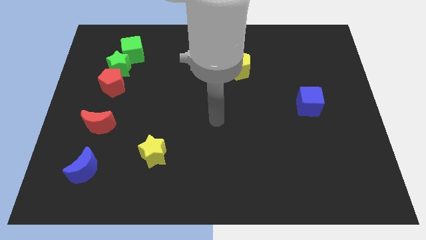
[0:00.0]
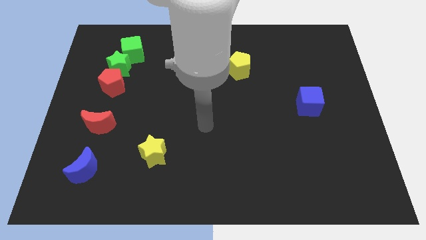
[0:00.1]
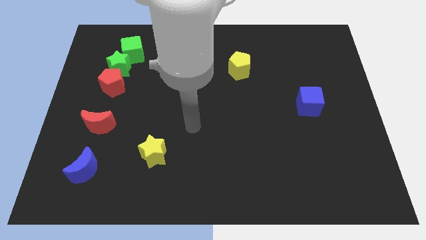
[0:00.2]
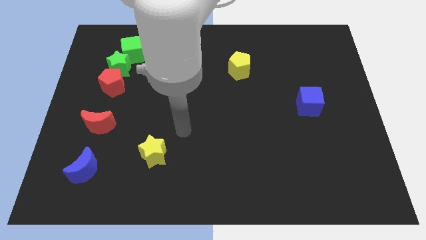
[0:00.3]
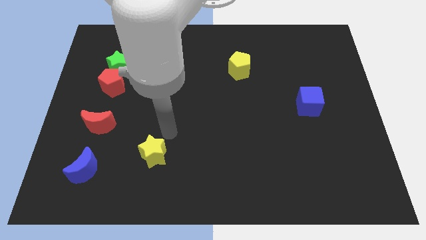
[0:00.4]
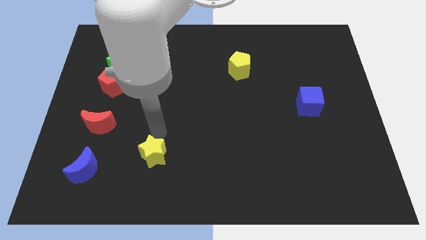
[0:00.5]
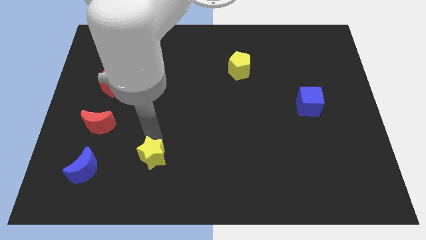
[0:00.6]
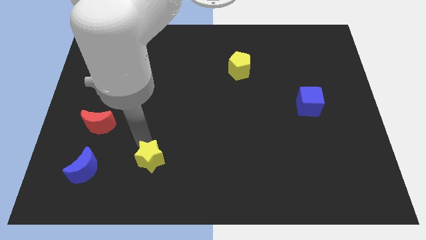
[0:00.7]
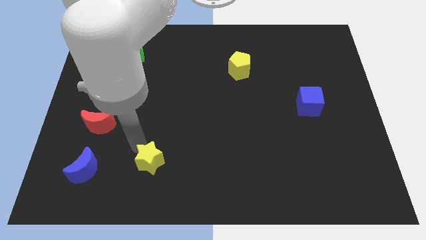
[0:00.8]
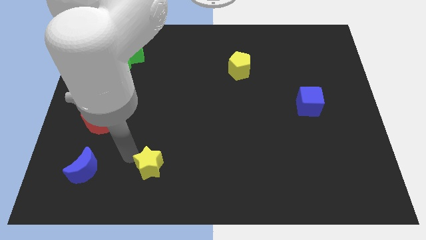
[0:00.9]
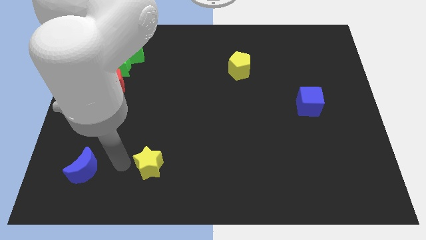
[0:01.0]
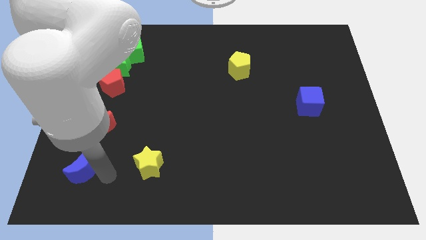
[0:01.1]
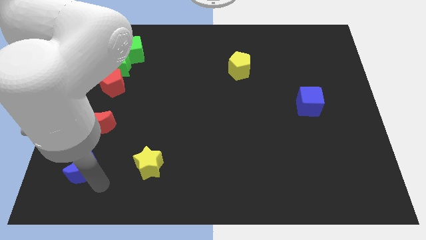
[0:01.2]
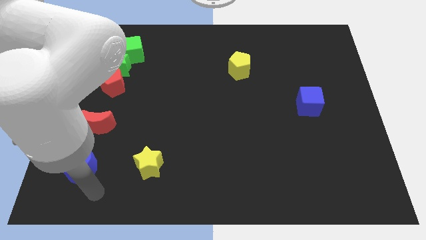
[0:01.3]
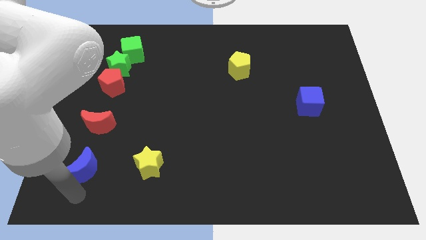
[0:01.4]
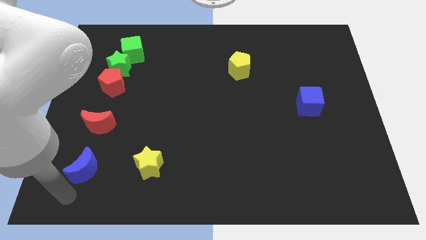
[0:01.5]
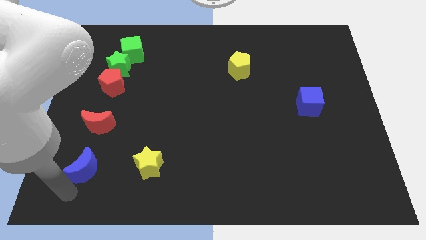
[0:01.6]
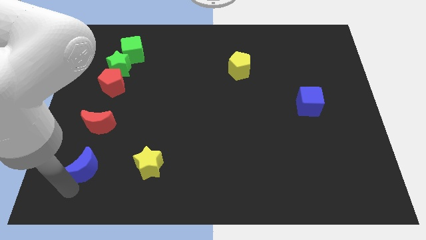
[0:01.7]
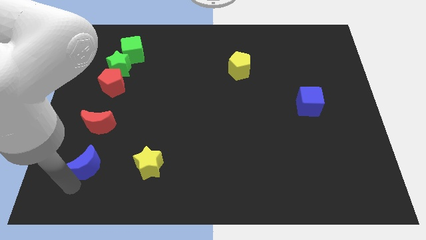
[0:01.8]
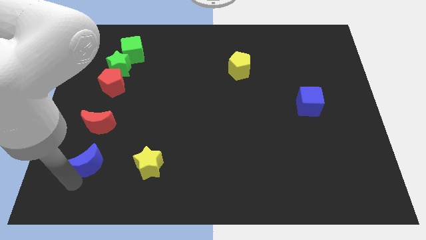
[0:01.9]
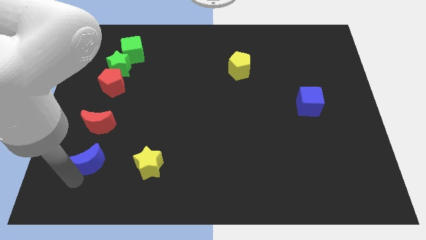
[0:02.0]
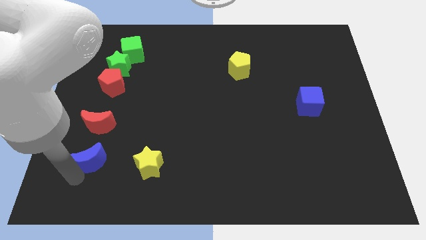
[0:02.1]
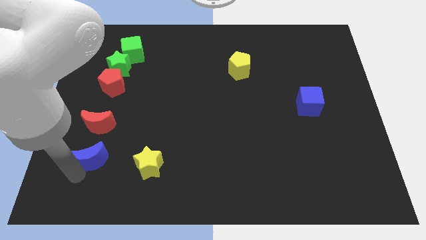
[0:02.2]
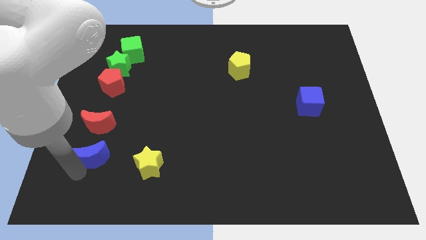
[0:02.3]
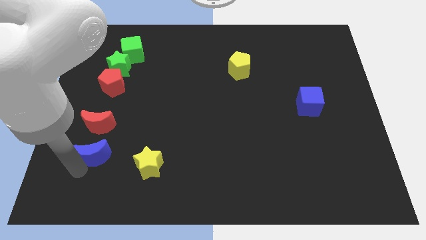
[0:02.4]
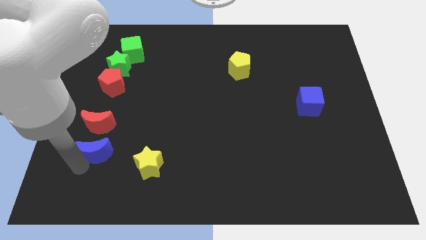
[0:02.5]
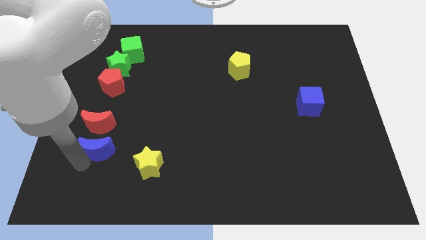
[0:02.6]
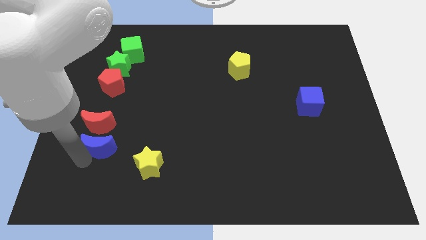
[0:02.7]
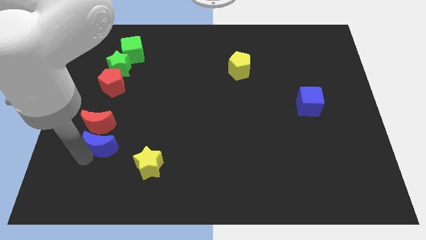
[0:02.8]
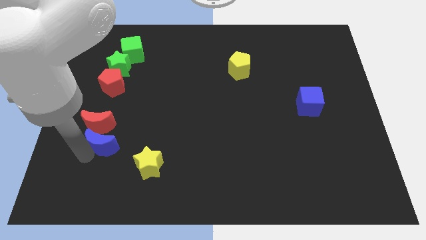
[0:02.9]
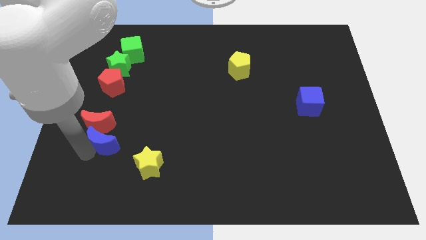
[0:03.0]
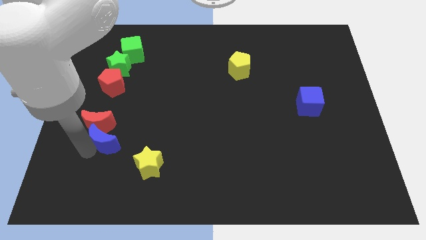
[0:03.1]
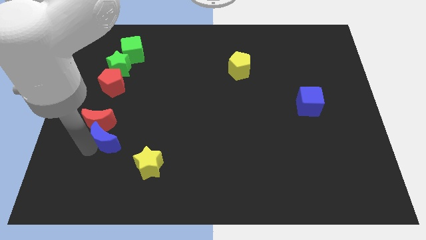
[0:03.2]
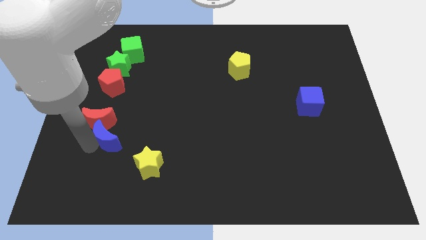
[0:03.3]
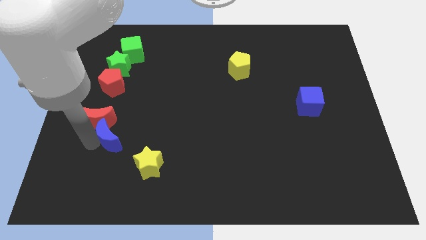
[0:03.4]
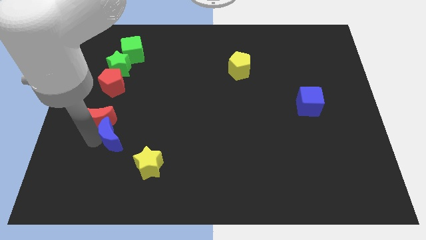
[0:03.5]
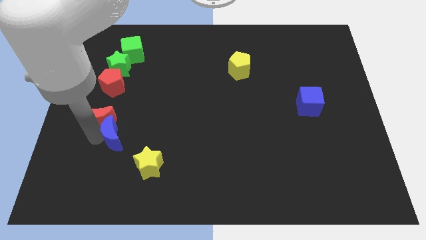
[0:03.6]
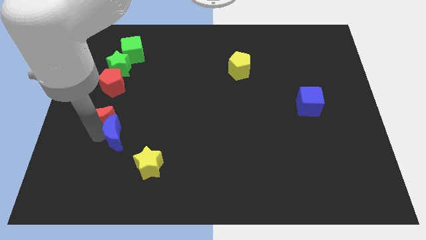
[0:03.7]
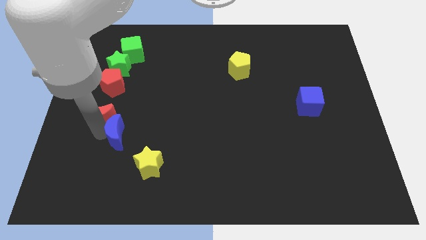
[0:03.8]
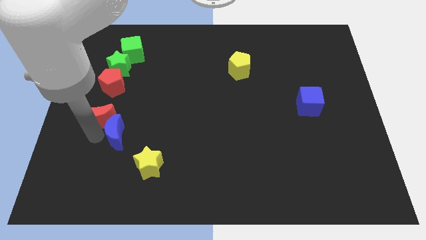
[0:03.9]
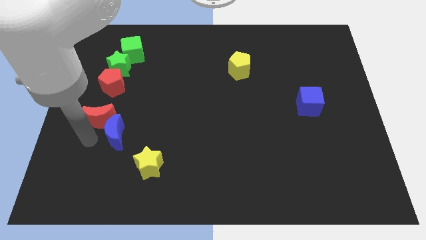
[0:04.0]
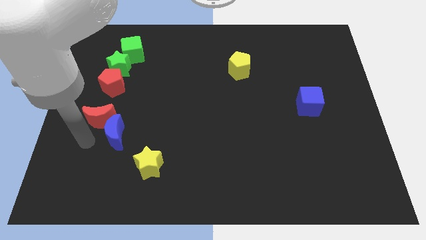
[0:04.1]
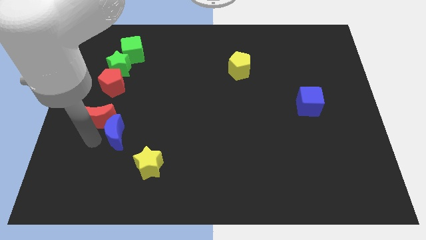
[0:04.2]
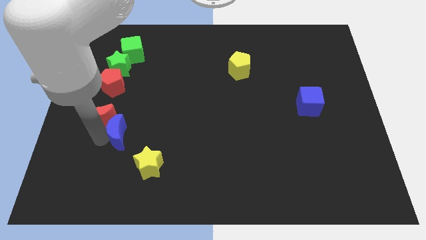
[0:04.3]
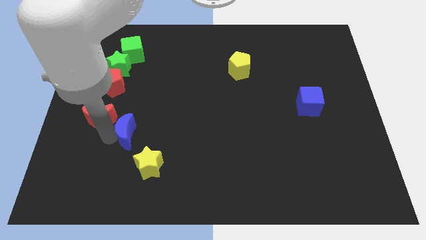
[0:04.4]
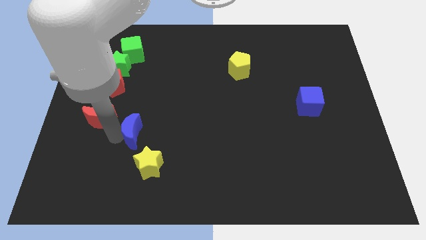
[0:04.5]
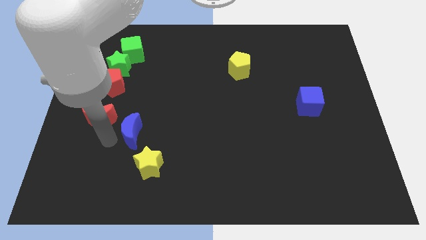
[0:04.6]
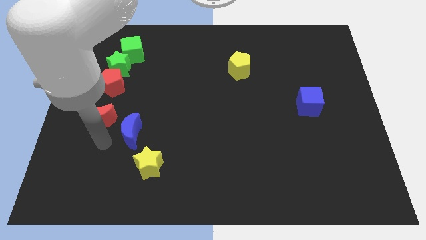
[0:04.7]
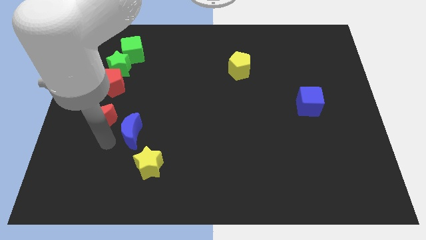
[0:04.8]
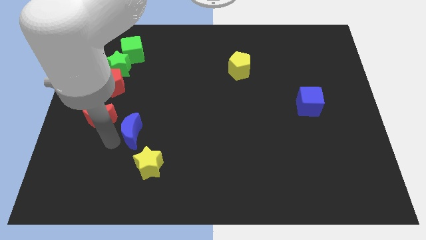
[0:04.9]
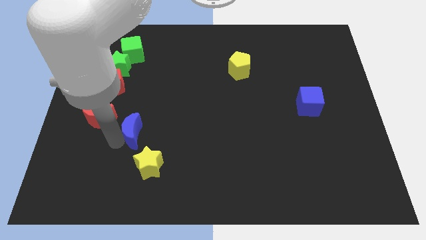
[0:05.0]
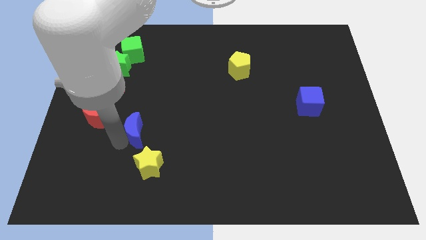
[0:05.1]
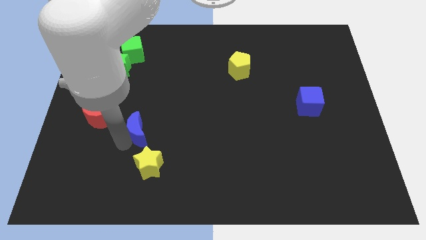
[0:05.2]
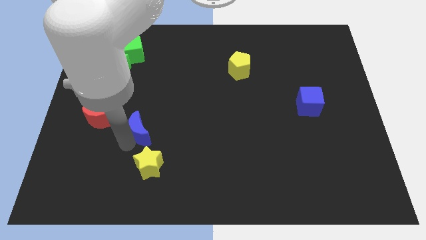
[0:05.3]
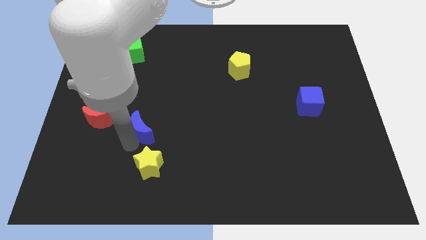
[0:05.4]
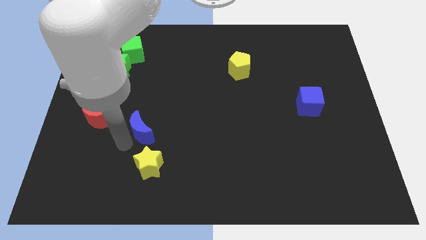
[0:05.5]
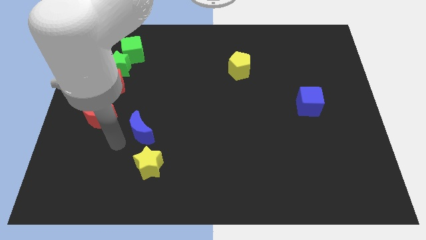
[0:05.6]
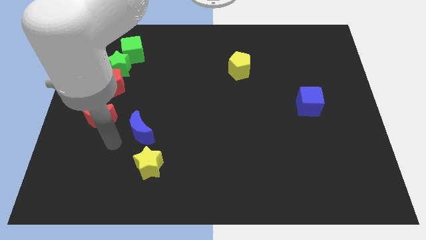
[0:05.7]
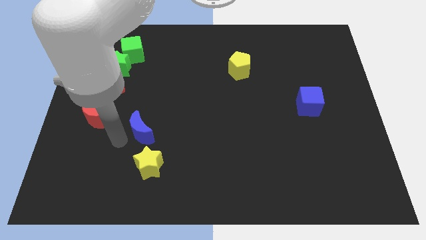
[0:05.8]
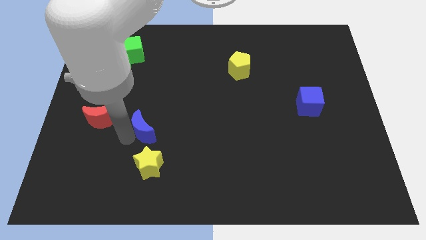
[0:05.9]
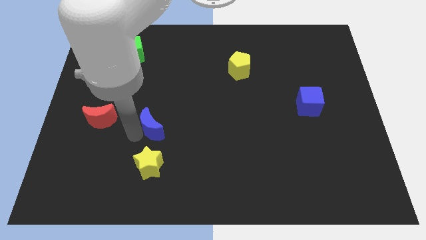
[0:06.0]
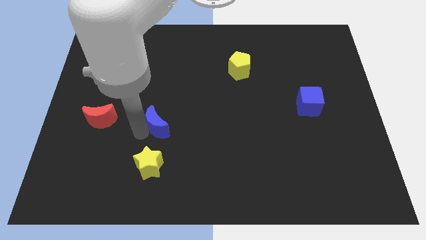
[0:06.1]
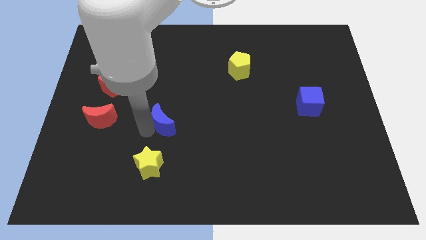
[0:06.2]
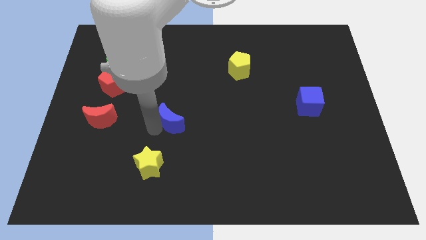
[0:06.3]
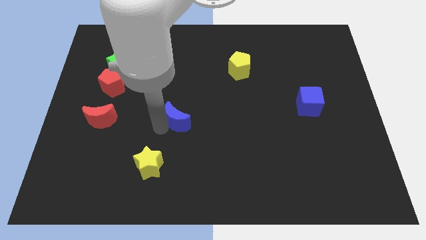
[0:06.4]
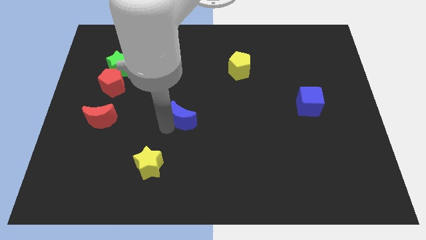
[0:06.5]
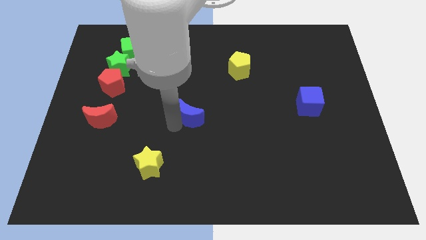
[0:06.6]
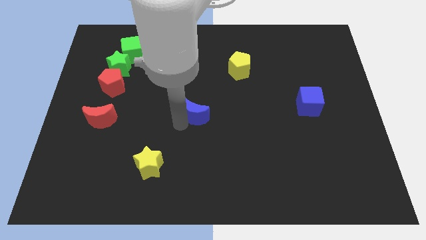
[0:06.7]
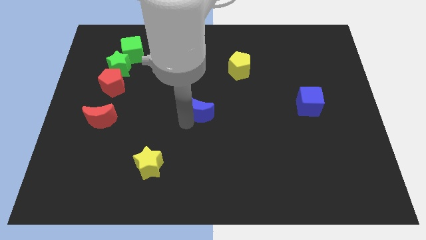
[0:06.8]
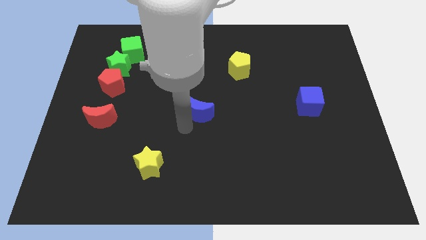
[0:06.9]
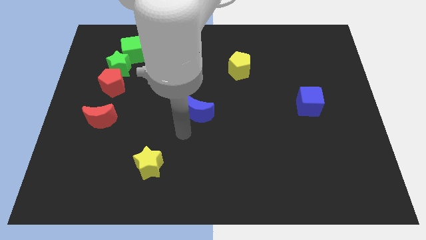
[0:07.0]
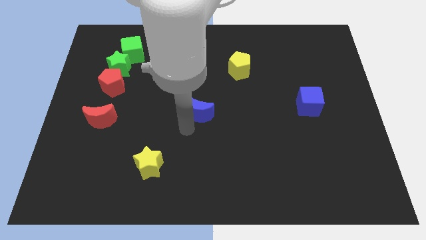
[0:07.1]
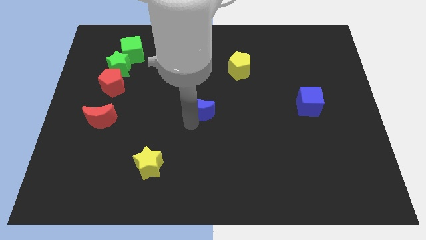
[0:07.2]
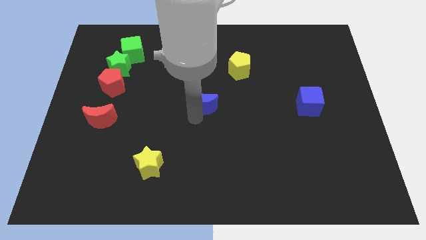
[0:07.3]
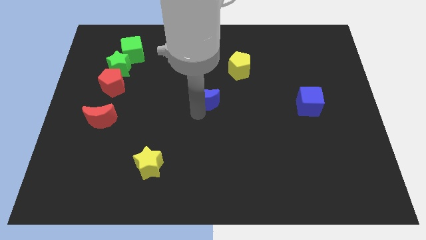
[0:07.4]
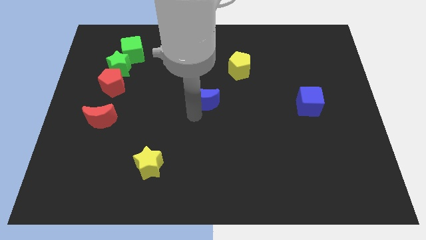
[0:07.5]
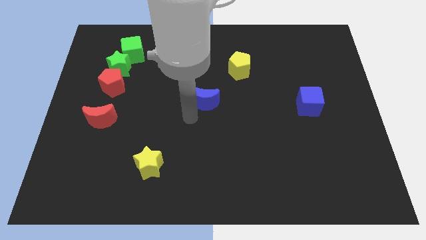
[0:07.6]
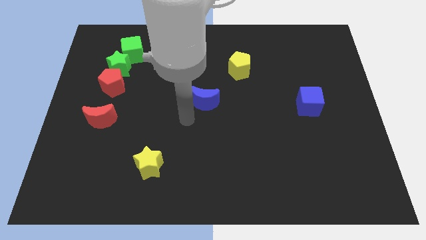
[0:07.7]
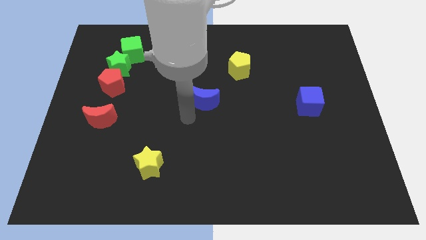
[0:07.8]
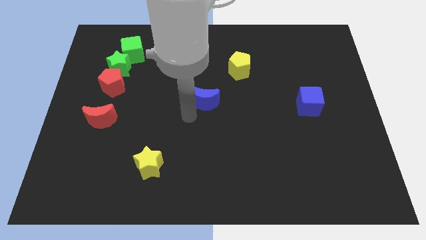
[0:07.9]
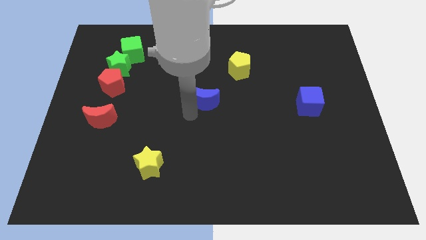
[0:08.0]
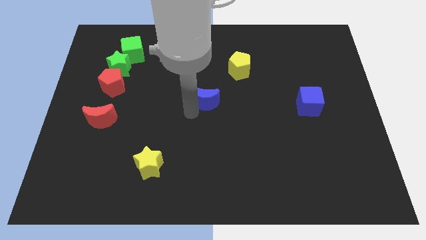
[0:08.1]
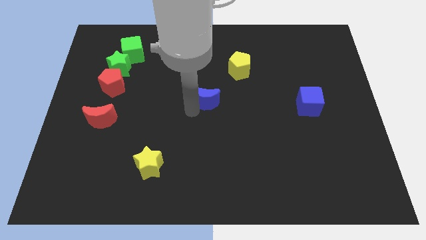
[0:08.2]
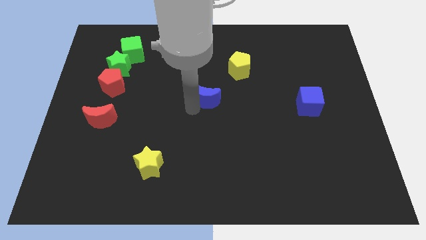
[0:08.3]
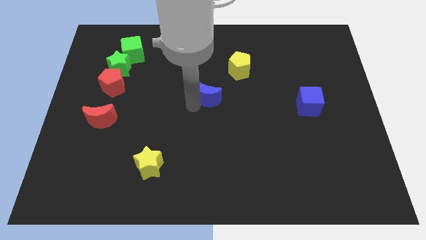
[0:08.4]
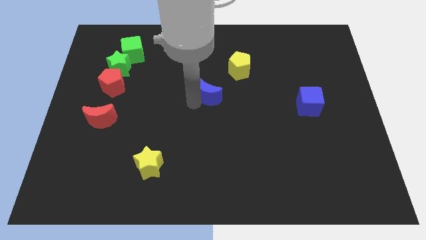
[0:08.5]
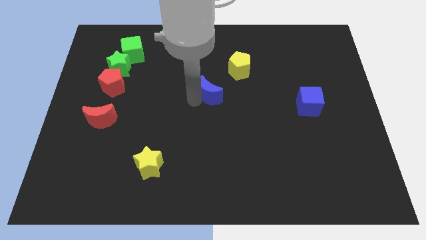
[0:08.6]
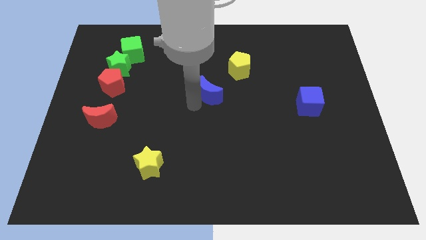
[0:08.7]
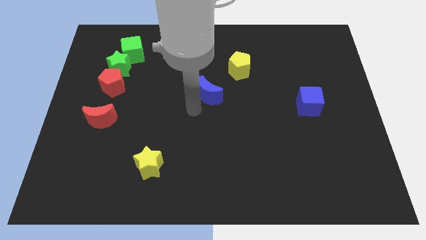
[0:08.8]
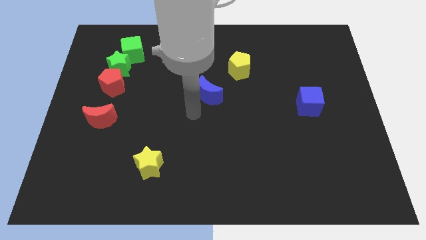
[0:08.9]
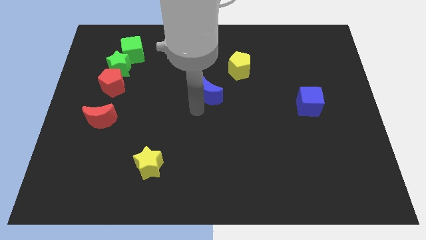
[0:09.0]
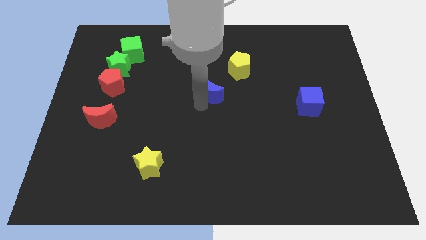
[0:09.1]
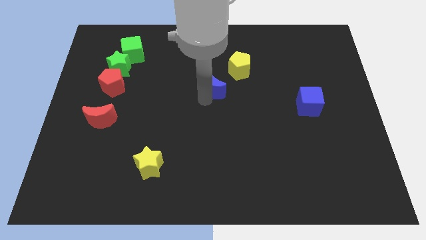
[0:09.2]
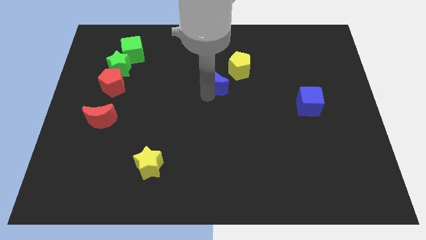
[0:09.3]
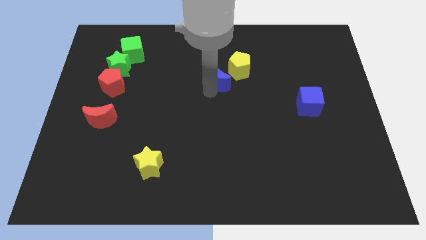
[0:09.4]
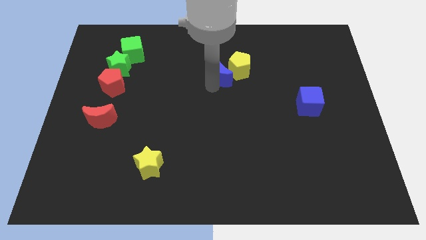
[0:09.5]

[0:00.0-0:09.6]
push the blue moon towards the yellow pentagon
